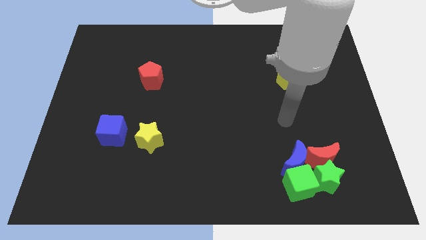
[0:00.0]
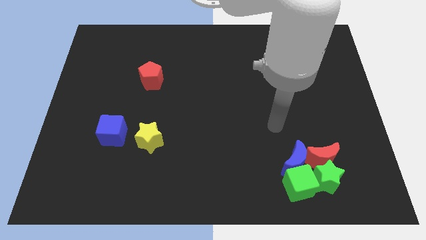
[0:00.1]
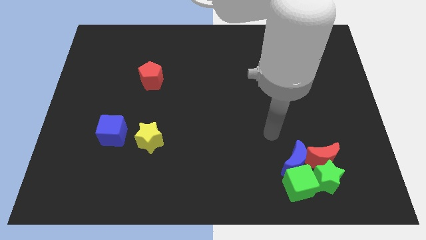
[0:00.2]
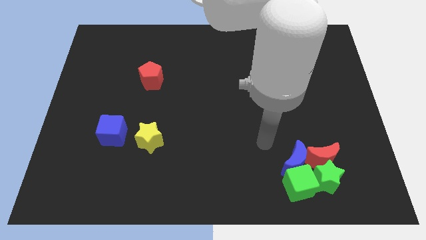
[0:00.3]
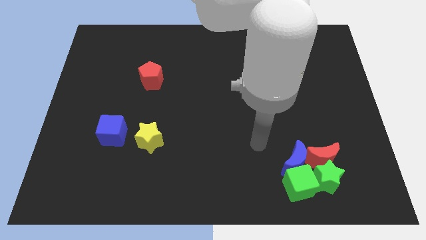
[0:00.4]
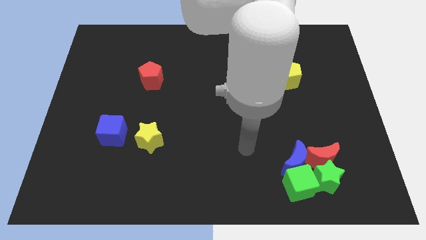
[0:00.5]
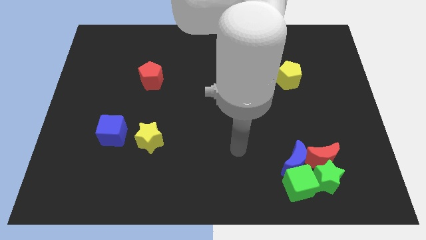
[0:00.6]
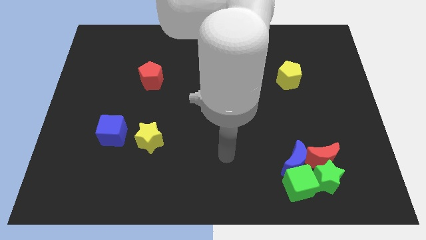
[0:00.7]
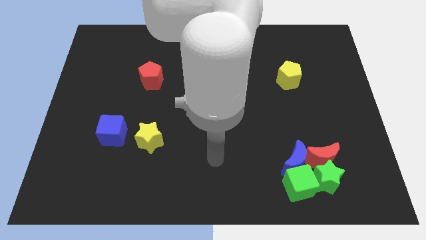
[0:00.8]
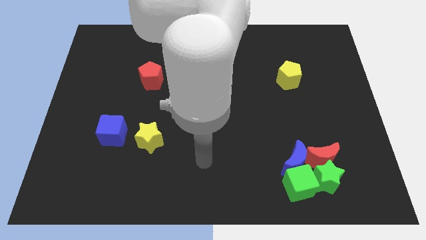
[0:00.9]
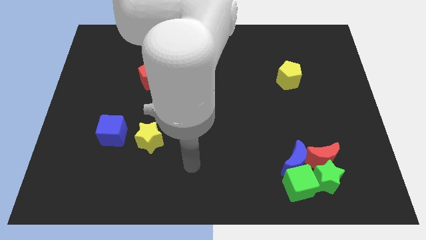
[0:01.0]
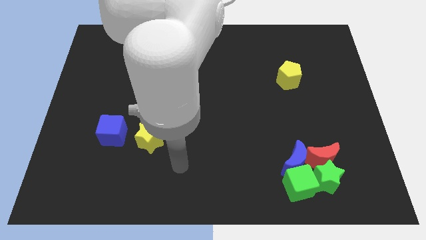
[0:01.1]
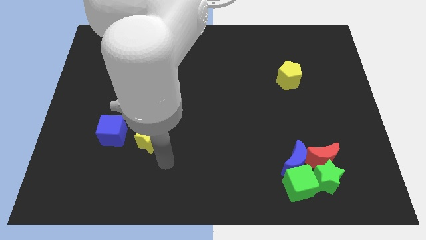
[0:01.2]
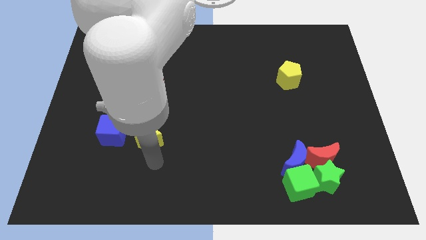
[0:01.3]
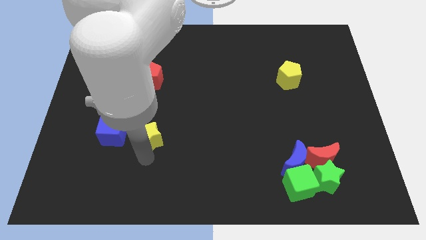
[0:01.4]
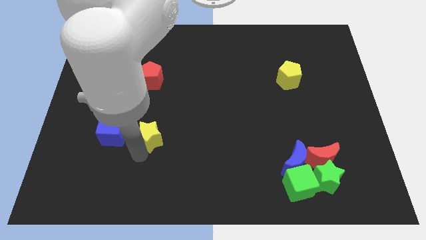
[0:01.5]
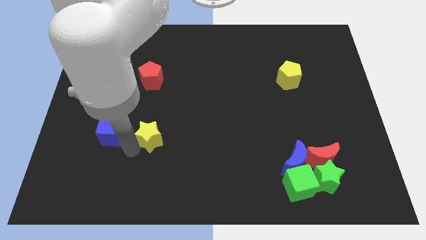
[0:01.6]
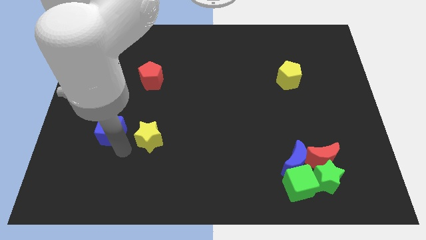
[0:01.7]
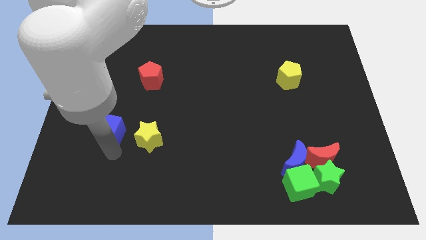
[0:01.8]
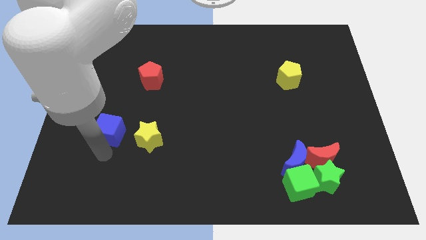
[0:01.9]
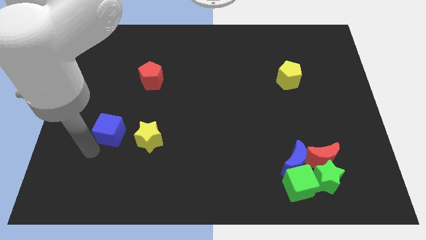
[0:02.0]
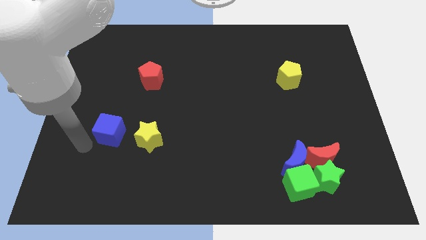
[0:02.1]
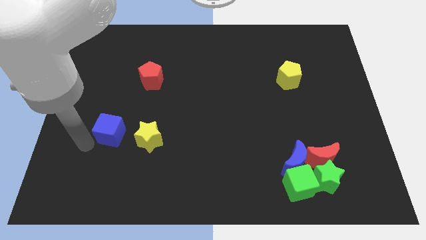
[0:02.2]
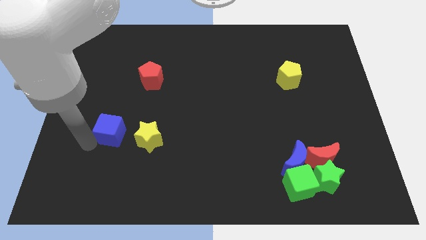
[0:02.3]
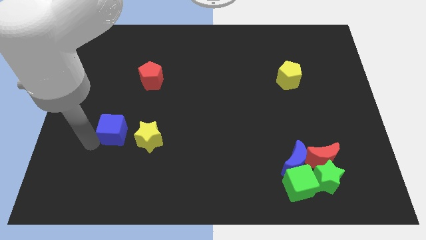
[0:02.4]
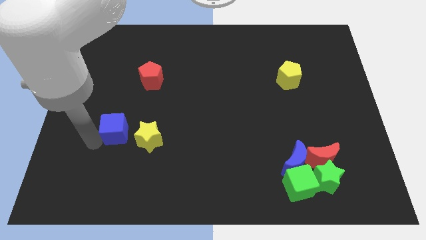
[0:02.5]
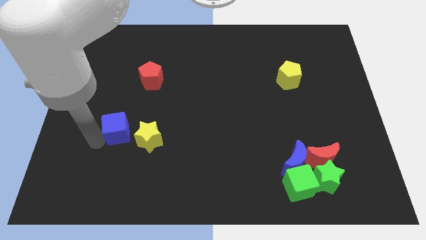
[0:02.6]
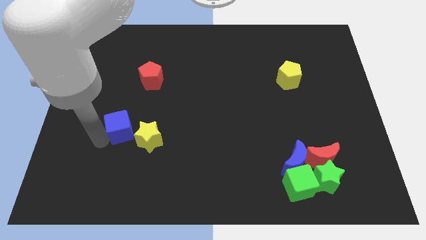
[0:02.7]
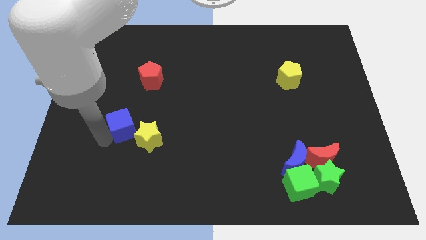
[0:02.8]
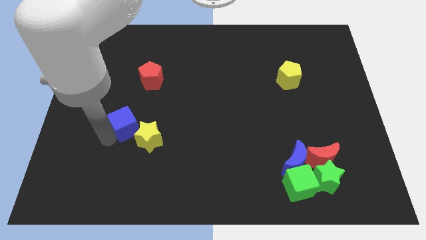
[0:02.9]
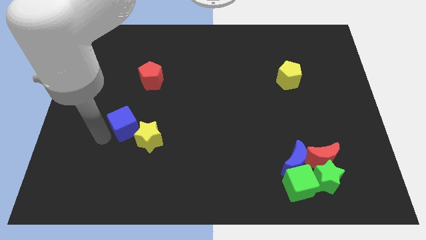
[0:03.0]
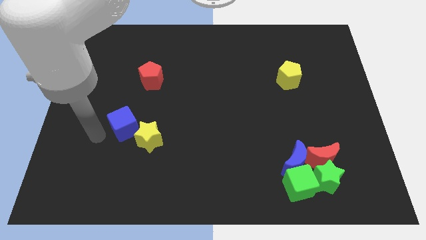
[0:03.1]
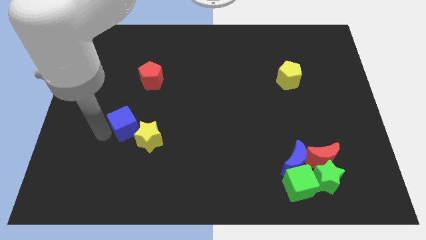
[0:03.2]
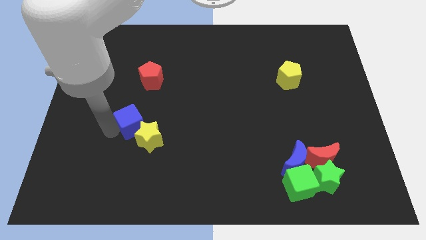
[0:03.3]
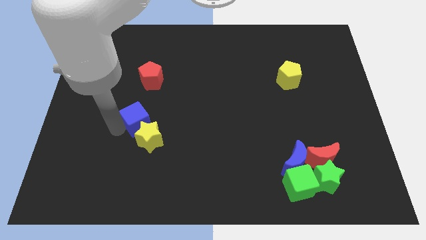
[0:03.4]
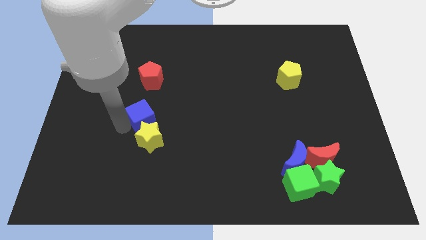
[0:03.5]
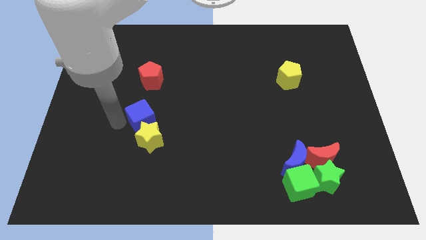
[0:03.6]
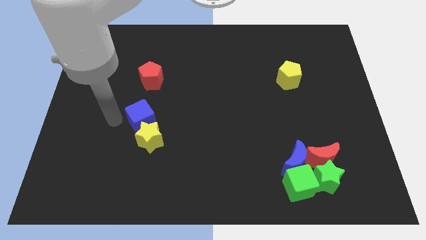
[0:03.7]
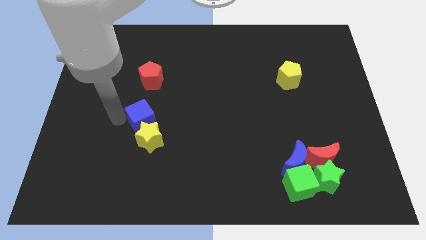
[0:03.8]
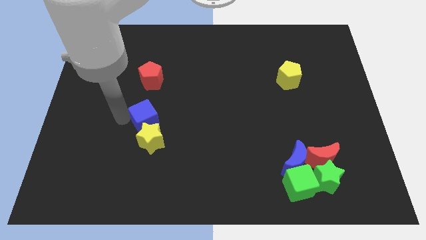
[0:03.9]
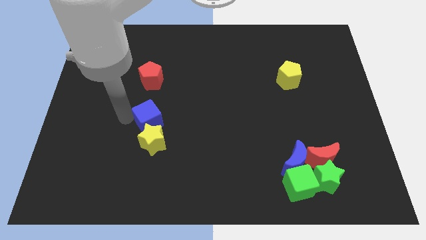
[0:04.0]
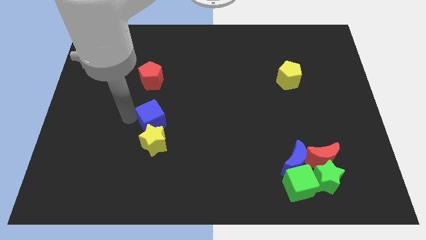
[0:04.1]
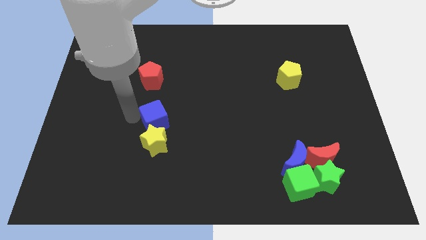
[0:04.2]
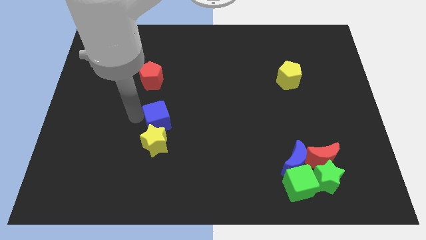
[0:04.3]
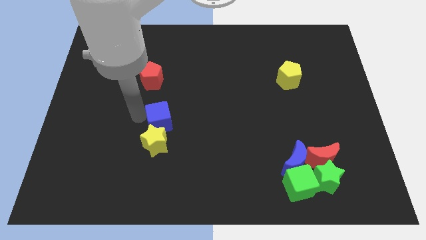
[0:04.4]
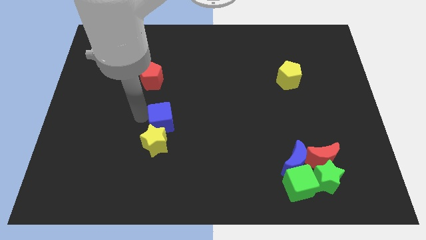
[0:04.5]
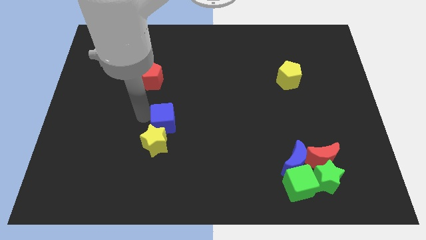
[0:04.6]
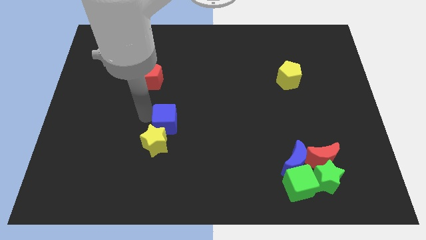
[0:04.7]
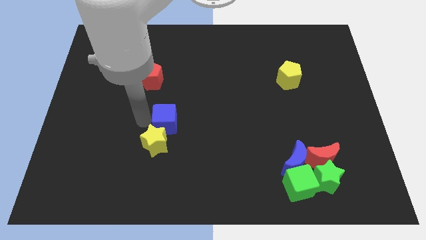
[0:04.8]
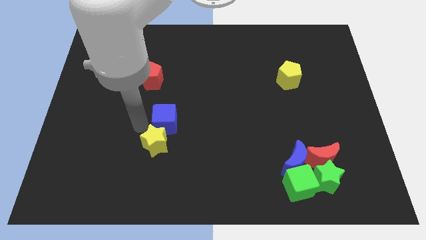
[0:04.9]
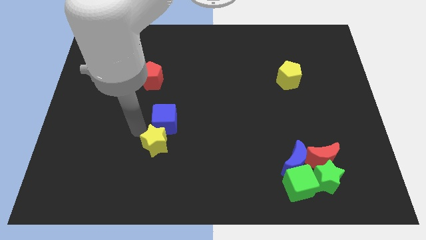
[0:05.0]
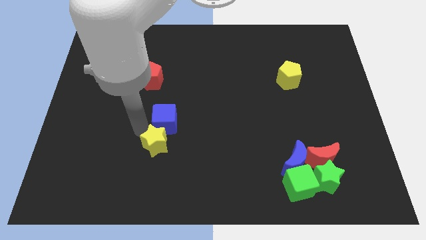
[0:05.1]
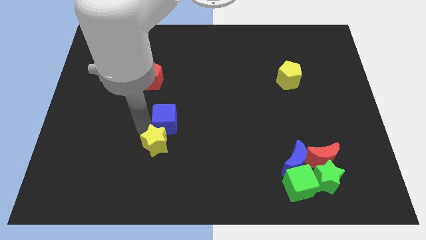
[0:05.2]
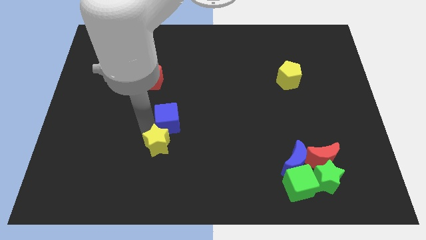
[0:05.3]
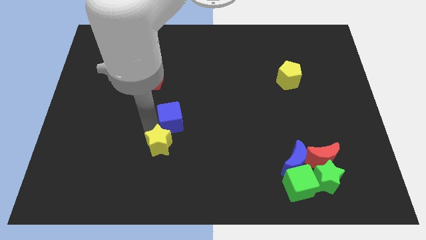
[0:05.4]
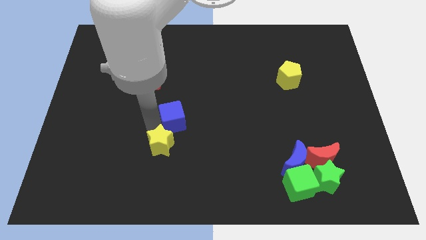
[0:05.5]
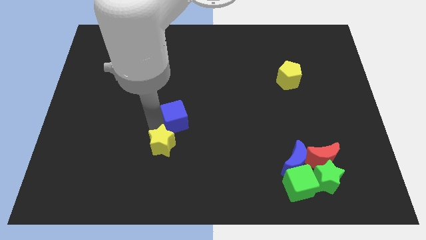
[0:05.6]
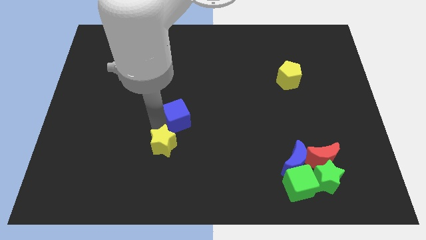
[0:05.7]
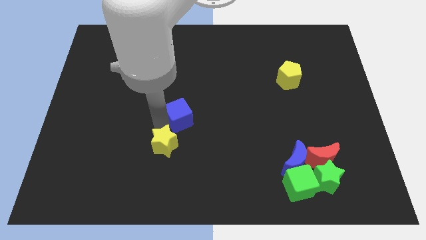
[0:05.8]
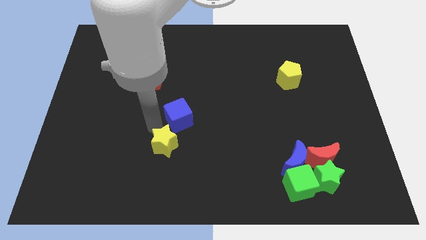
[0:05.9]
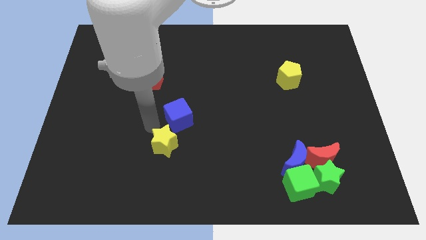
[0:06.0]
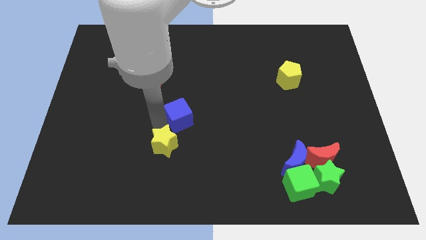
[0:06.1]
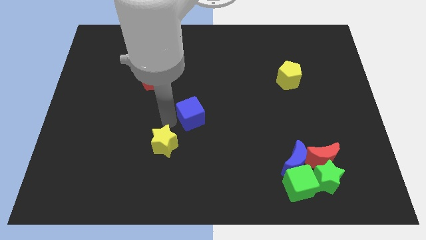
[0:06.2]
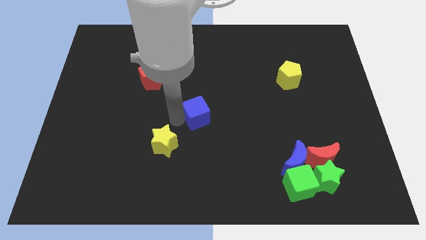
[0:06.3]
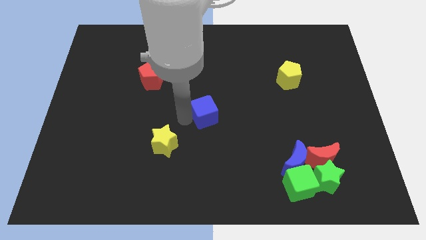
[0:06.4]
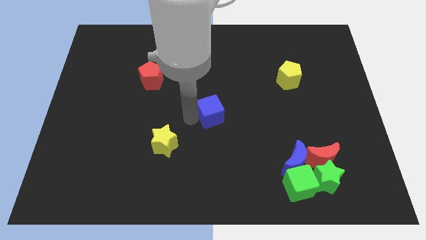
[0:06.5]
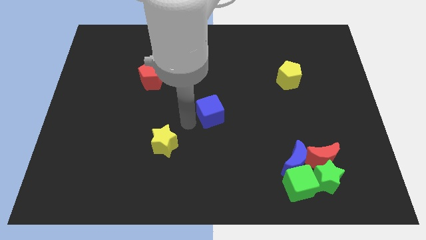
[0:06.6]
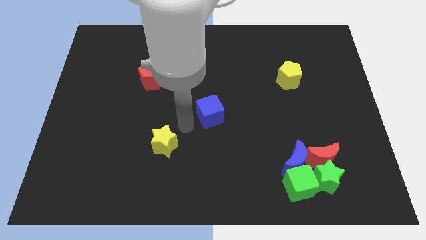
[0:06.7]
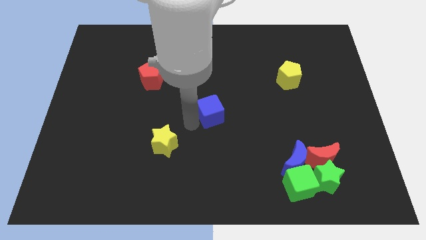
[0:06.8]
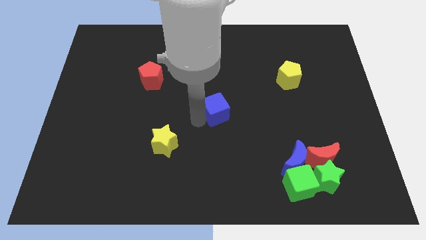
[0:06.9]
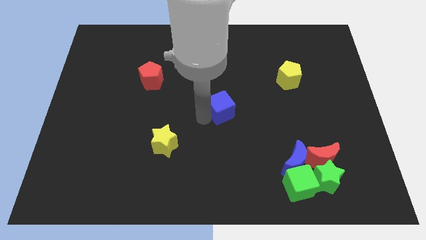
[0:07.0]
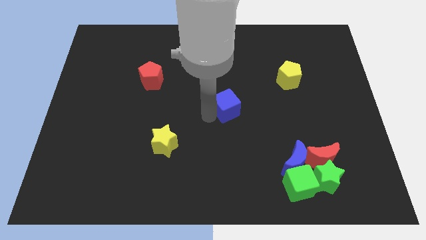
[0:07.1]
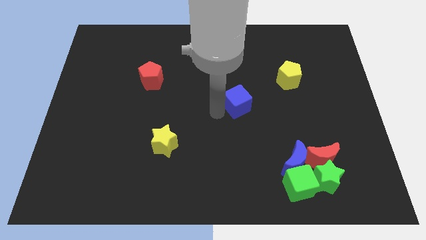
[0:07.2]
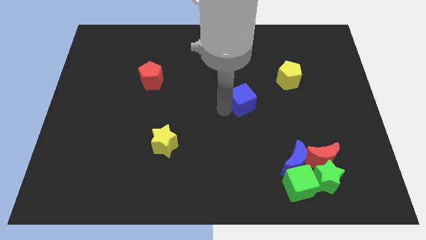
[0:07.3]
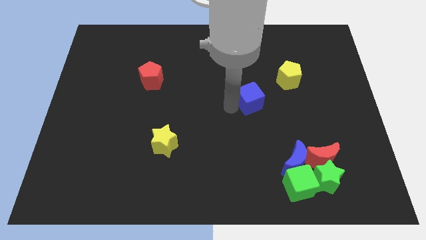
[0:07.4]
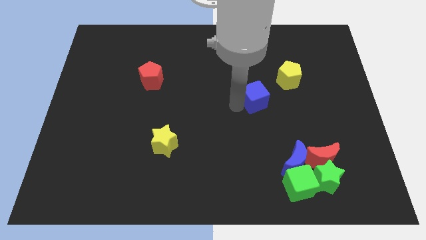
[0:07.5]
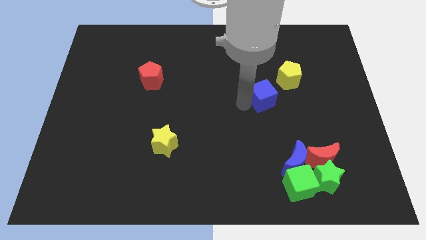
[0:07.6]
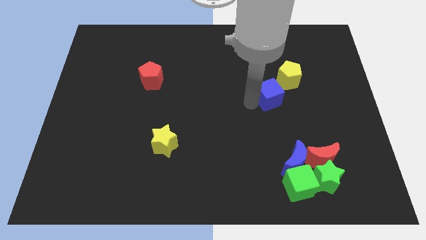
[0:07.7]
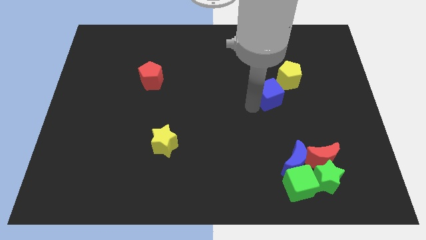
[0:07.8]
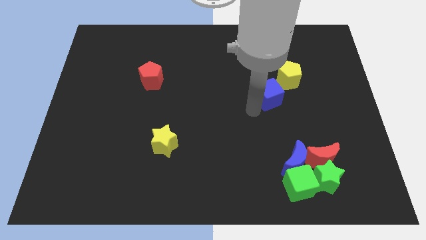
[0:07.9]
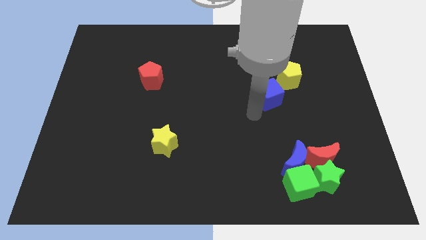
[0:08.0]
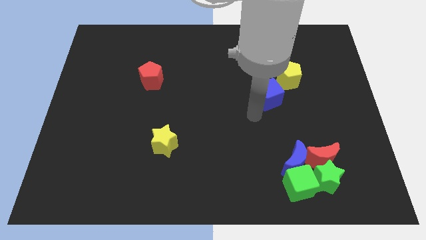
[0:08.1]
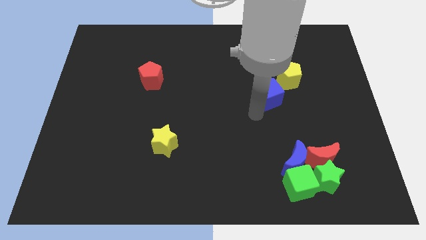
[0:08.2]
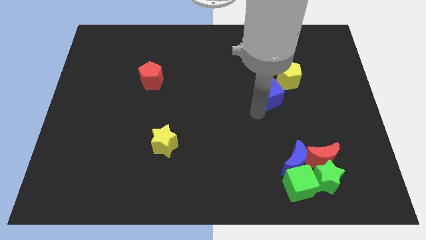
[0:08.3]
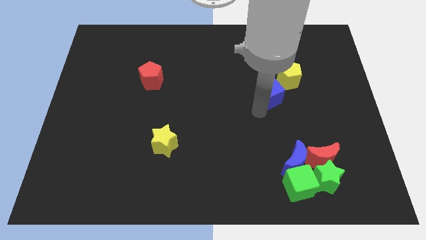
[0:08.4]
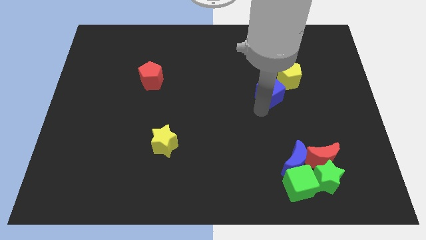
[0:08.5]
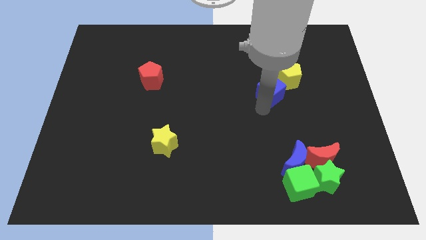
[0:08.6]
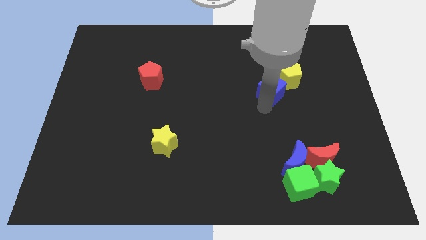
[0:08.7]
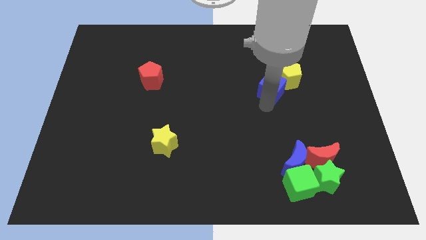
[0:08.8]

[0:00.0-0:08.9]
move the blue cube towards the yellow pentagon
